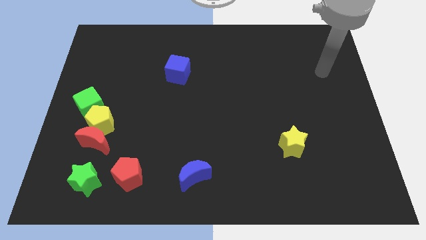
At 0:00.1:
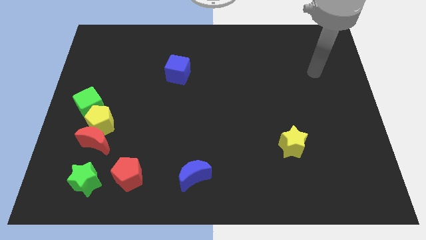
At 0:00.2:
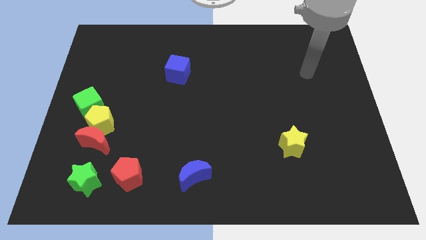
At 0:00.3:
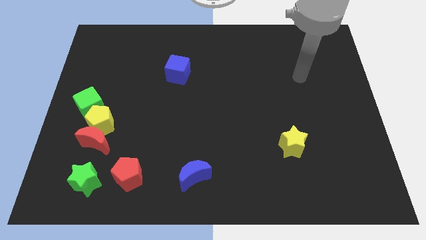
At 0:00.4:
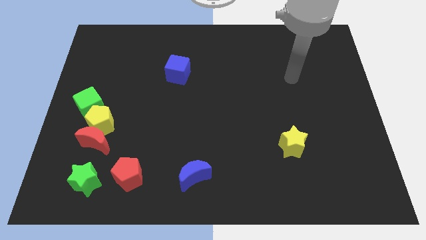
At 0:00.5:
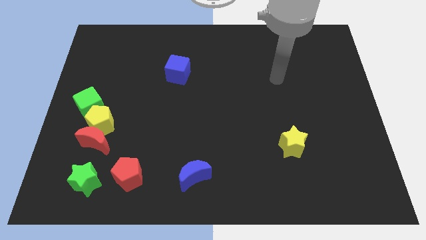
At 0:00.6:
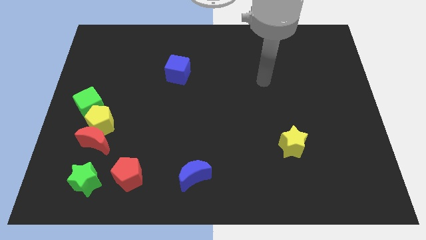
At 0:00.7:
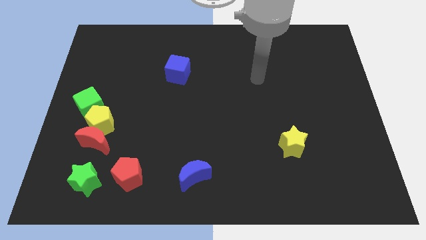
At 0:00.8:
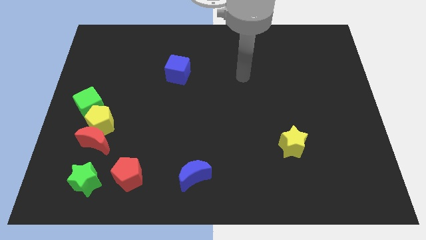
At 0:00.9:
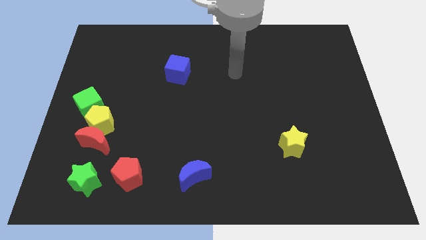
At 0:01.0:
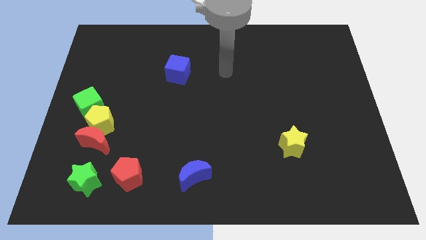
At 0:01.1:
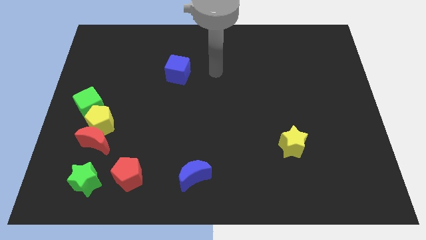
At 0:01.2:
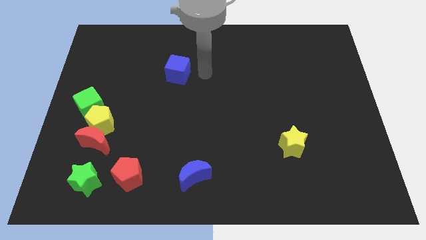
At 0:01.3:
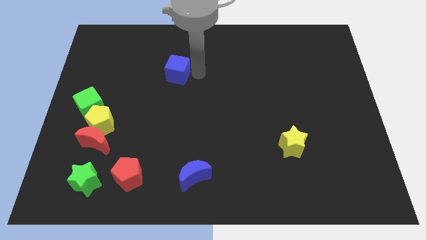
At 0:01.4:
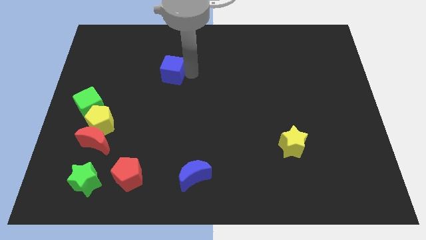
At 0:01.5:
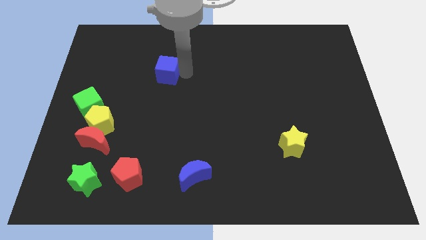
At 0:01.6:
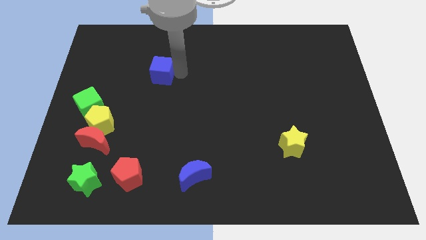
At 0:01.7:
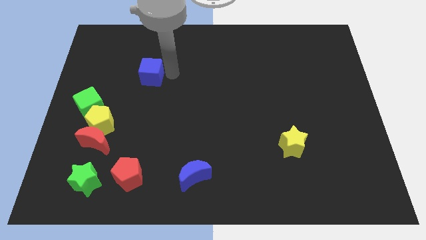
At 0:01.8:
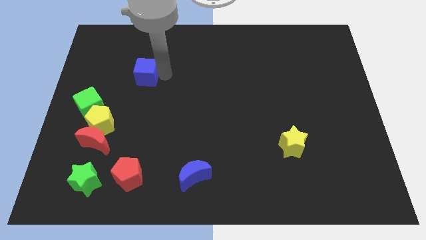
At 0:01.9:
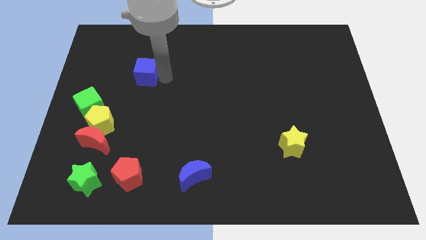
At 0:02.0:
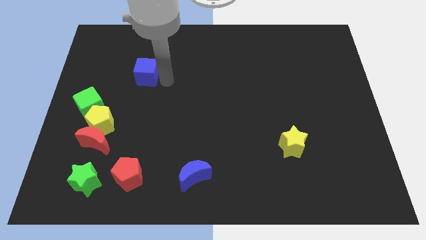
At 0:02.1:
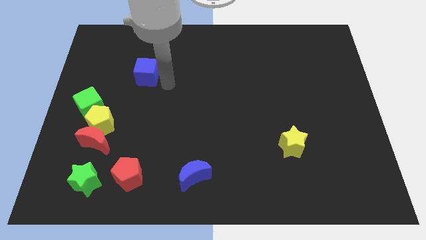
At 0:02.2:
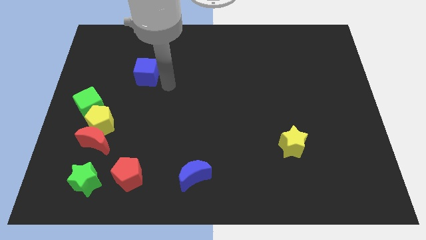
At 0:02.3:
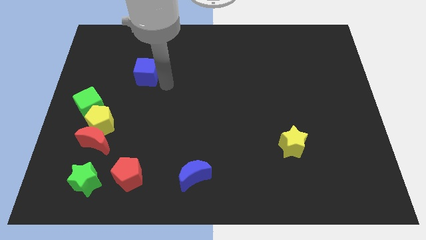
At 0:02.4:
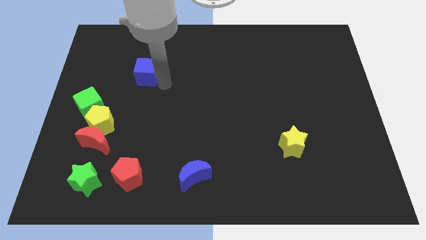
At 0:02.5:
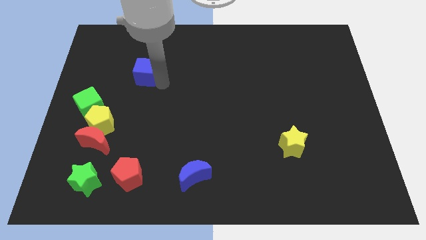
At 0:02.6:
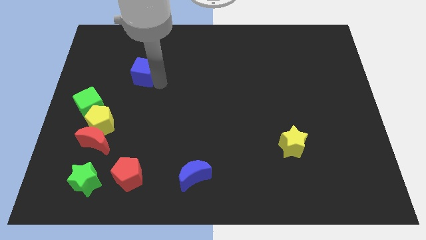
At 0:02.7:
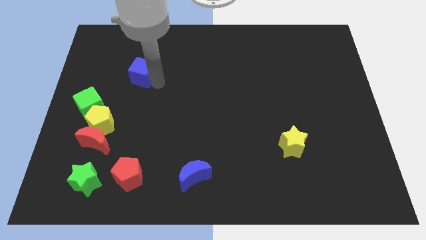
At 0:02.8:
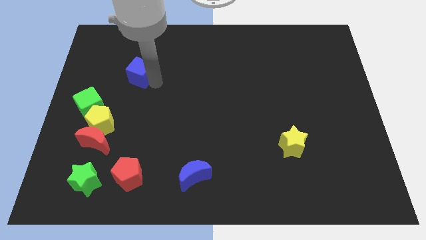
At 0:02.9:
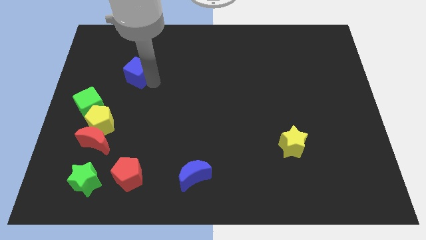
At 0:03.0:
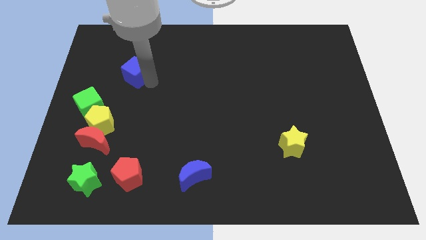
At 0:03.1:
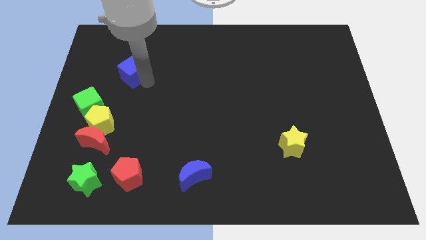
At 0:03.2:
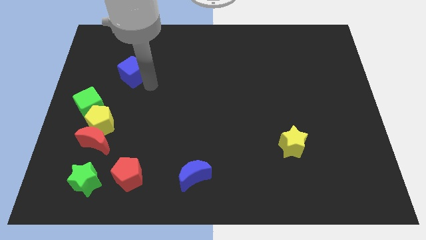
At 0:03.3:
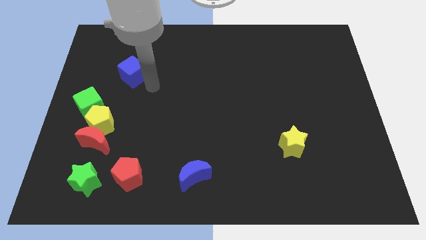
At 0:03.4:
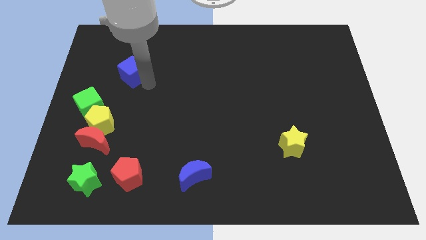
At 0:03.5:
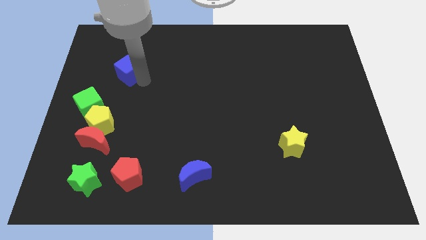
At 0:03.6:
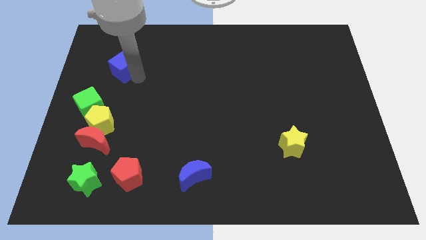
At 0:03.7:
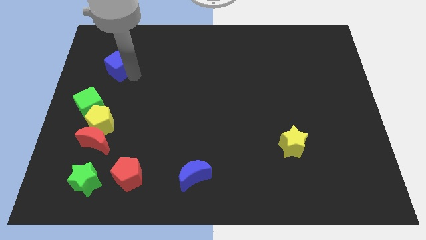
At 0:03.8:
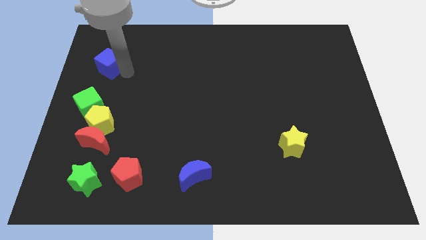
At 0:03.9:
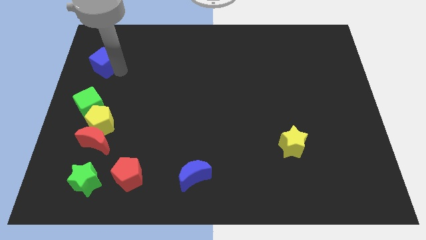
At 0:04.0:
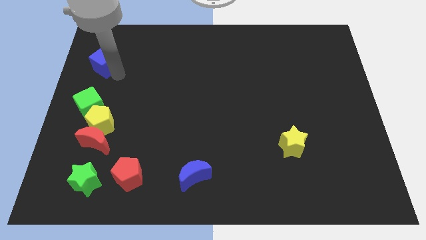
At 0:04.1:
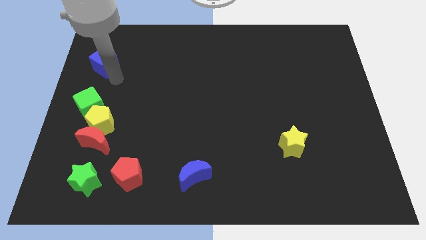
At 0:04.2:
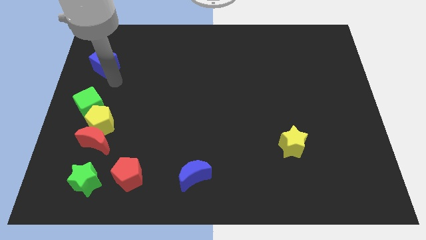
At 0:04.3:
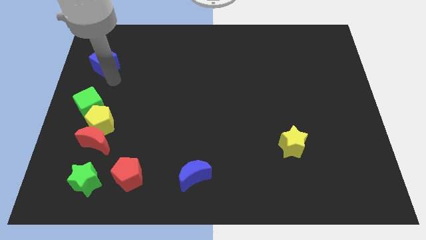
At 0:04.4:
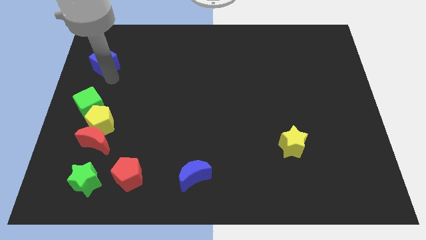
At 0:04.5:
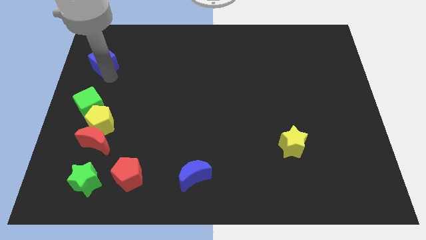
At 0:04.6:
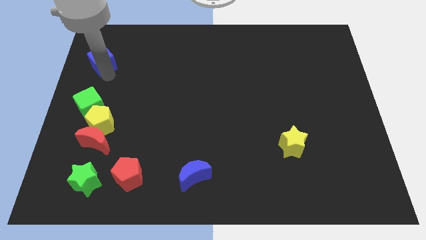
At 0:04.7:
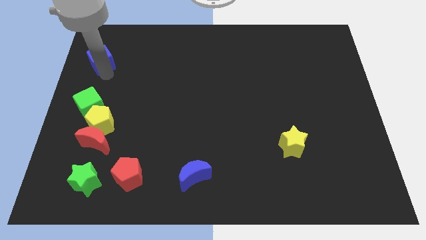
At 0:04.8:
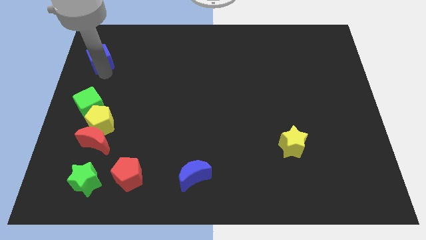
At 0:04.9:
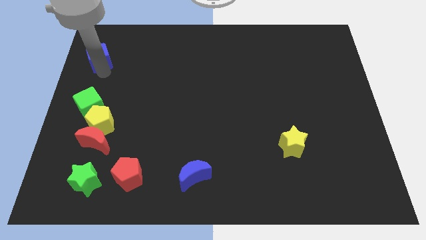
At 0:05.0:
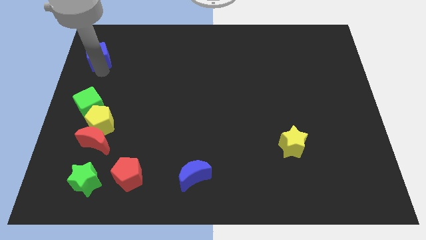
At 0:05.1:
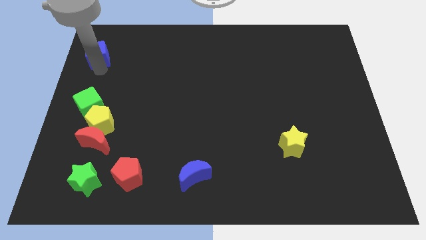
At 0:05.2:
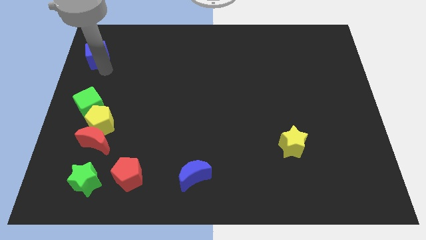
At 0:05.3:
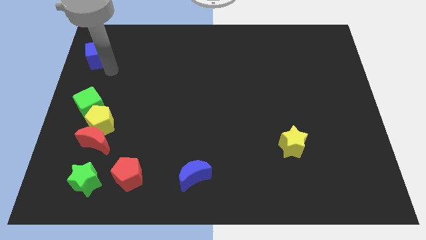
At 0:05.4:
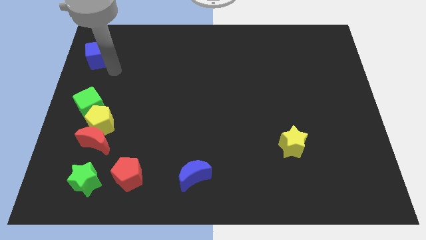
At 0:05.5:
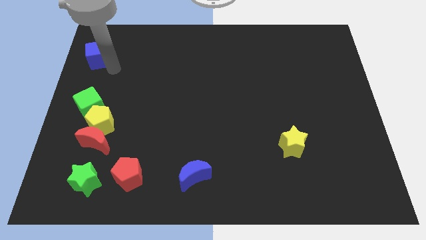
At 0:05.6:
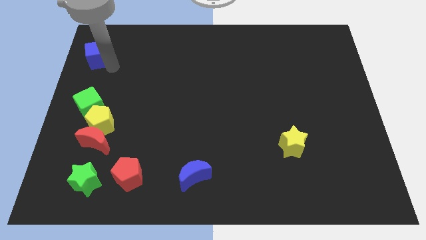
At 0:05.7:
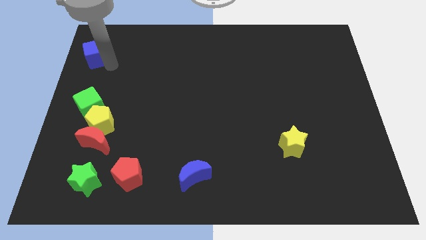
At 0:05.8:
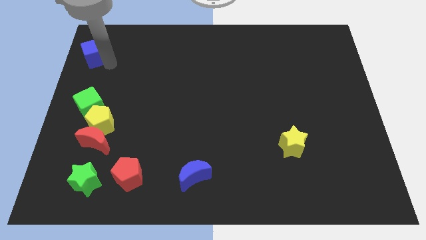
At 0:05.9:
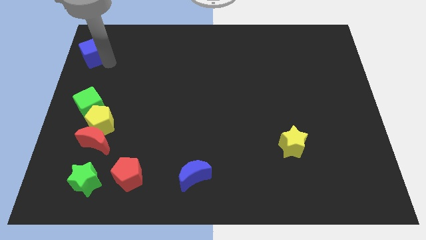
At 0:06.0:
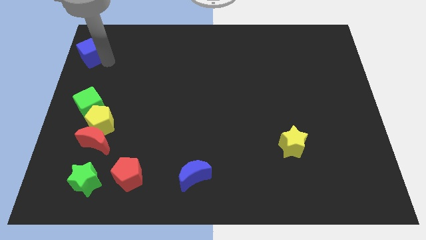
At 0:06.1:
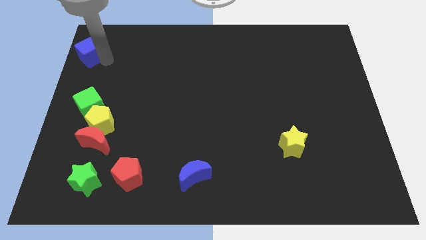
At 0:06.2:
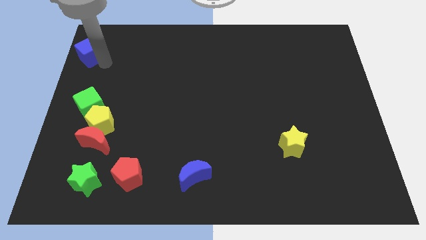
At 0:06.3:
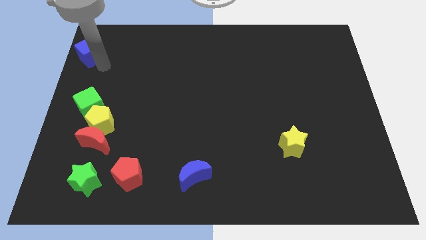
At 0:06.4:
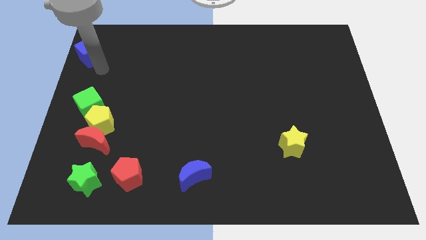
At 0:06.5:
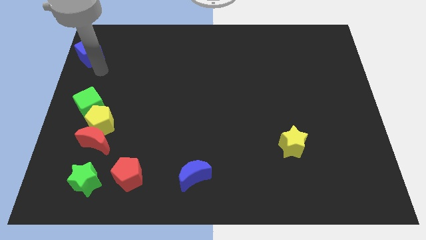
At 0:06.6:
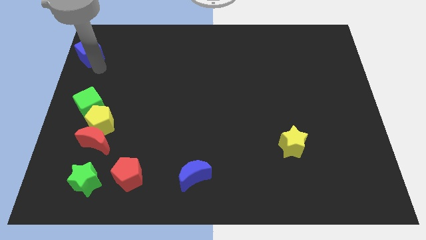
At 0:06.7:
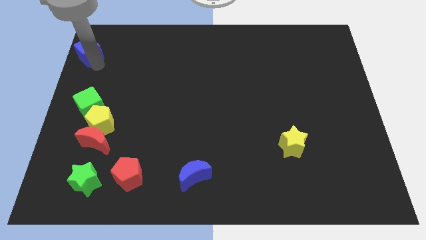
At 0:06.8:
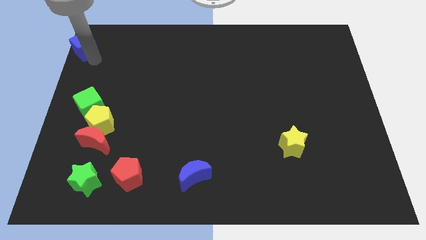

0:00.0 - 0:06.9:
slide the blue cube to the upper left corner
